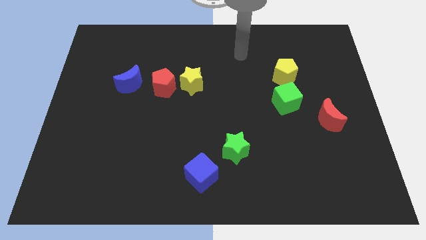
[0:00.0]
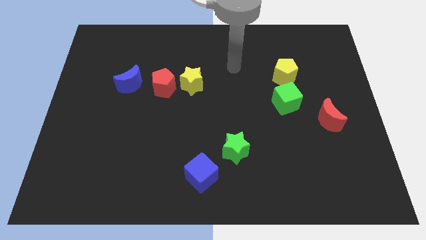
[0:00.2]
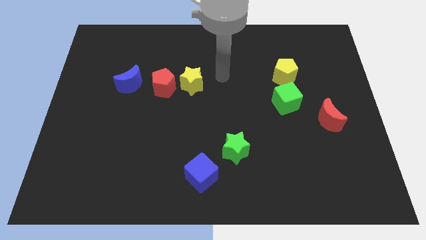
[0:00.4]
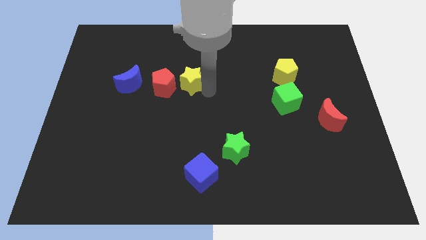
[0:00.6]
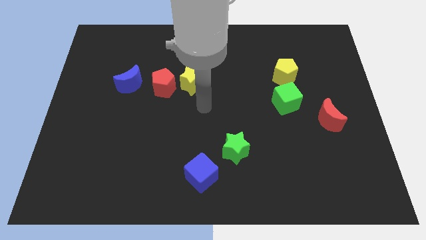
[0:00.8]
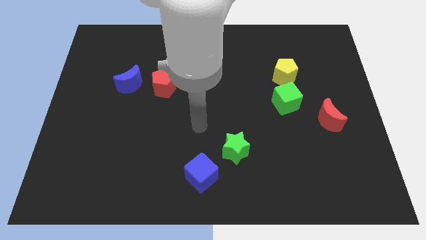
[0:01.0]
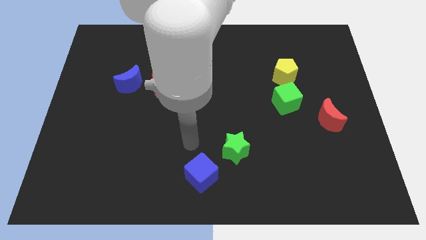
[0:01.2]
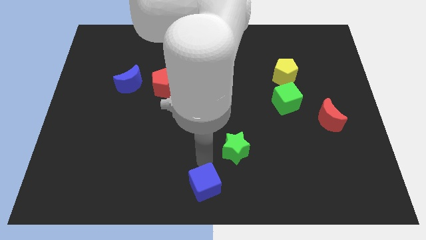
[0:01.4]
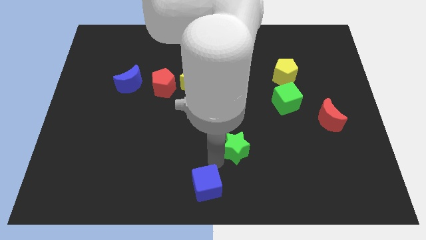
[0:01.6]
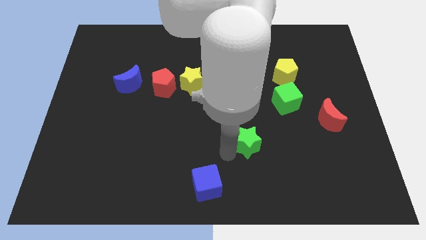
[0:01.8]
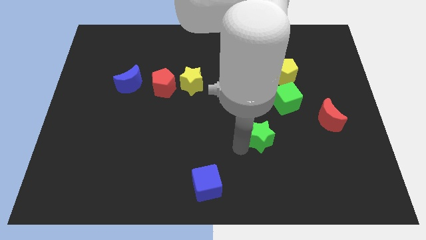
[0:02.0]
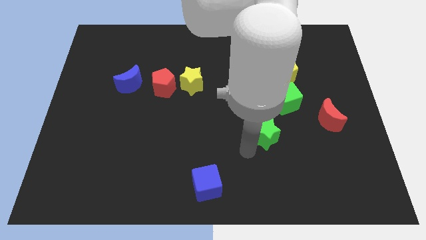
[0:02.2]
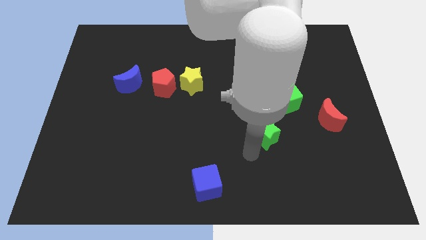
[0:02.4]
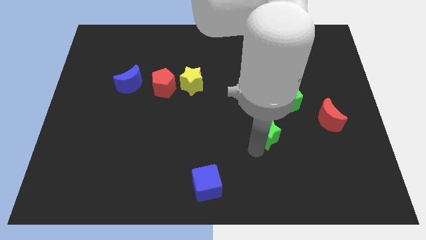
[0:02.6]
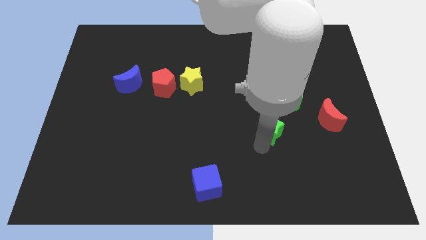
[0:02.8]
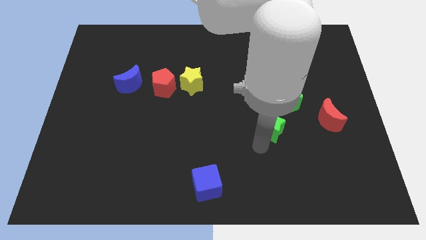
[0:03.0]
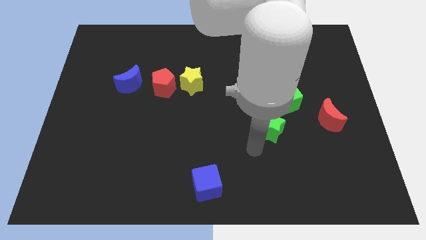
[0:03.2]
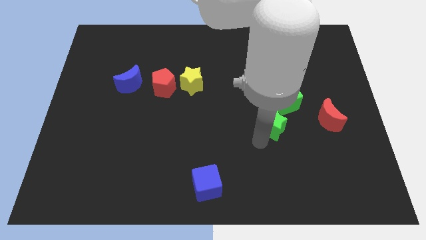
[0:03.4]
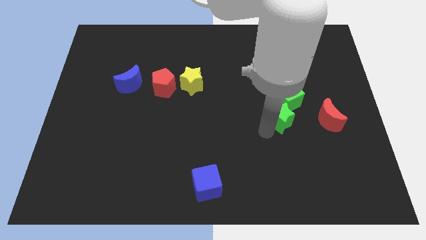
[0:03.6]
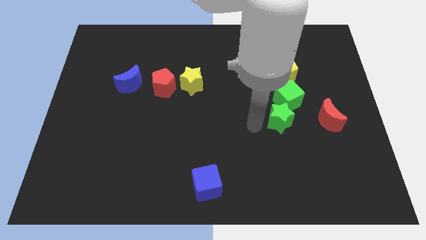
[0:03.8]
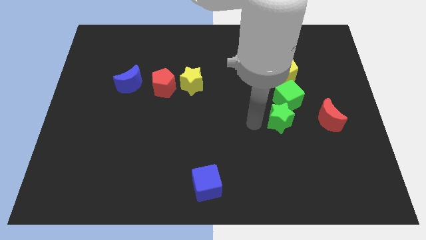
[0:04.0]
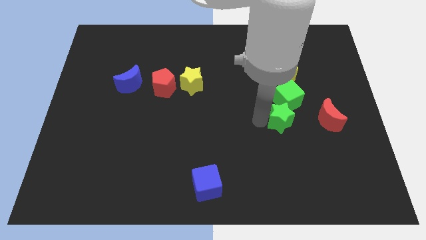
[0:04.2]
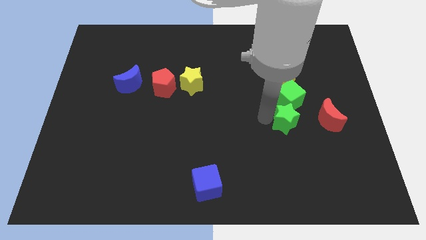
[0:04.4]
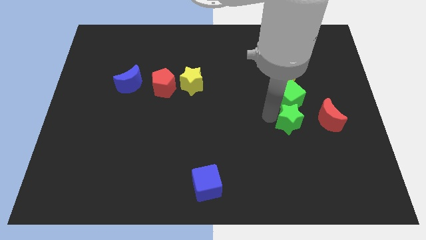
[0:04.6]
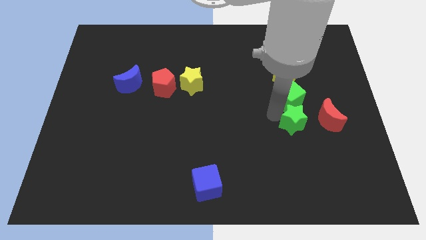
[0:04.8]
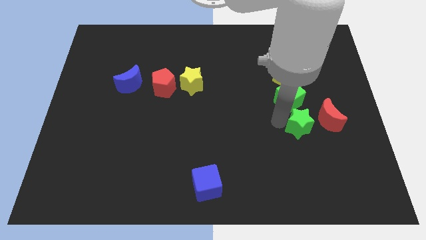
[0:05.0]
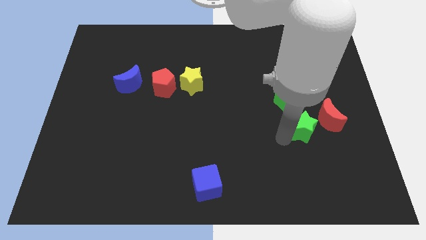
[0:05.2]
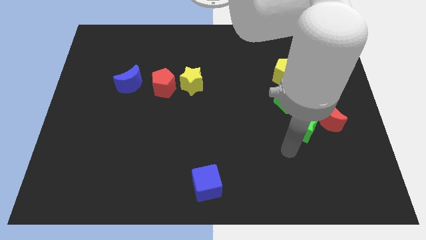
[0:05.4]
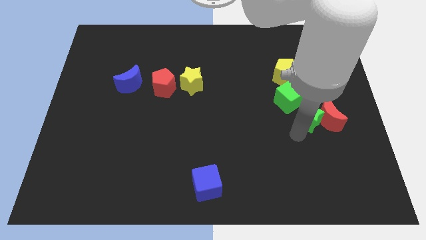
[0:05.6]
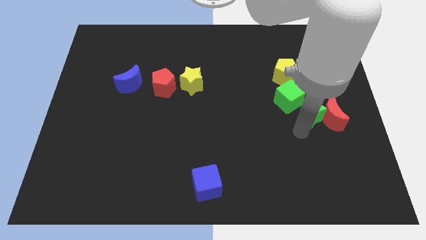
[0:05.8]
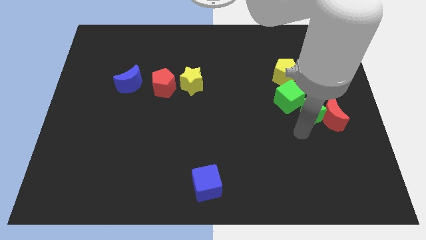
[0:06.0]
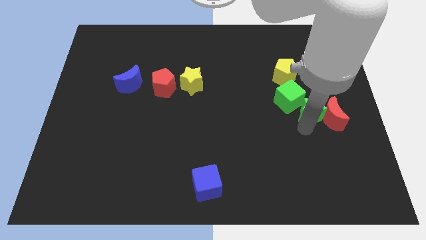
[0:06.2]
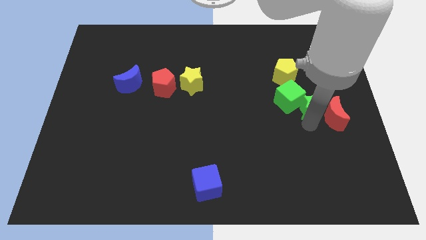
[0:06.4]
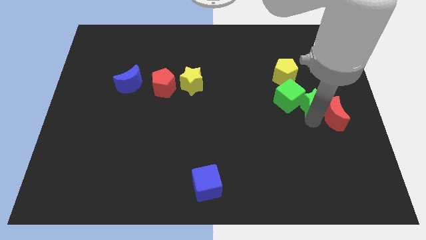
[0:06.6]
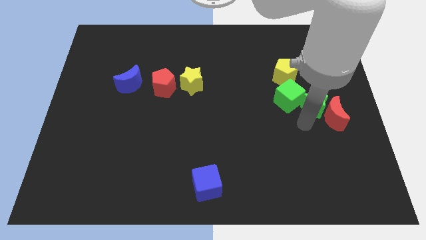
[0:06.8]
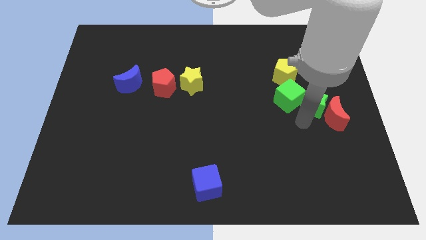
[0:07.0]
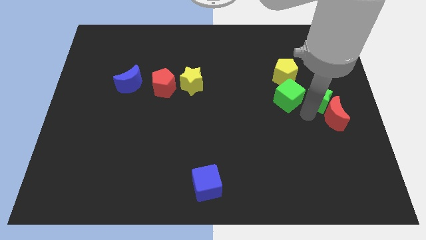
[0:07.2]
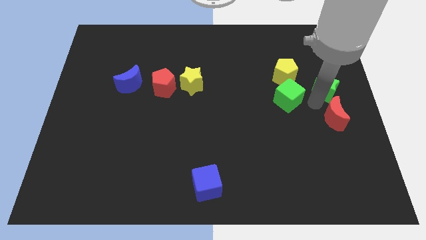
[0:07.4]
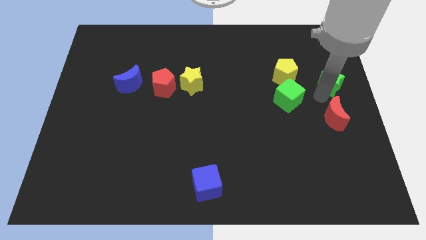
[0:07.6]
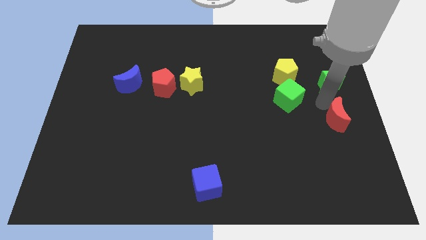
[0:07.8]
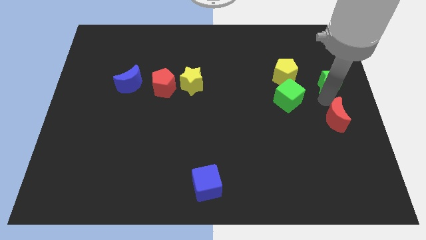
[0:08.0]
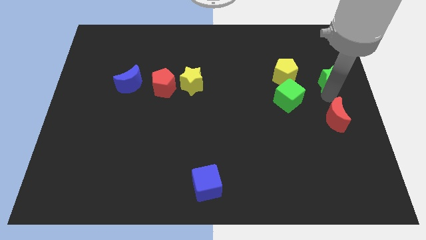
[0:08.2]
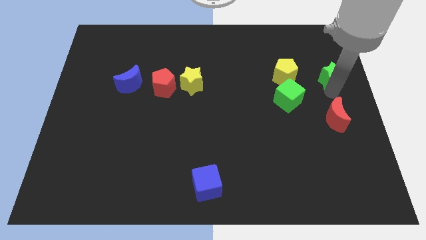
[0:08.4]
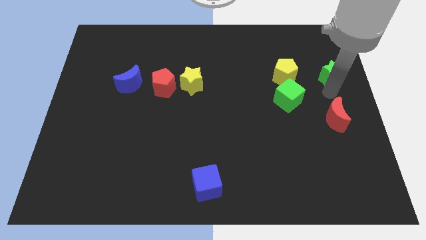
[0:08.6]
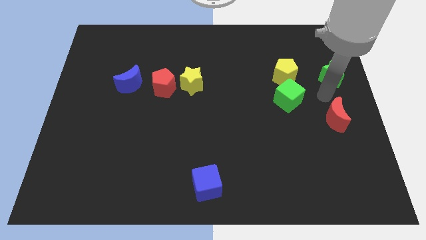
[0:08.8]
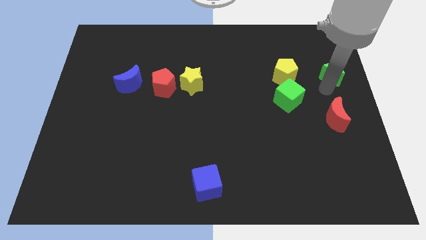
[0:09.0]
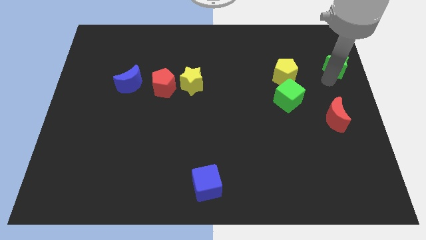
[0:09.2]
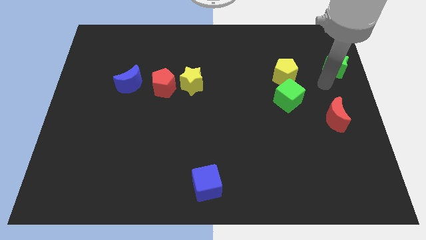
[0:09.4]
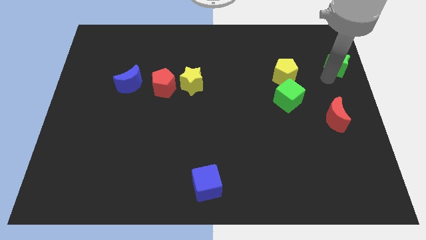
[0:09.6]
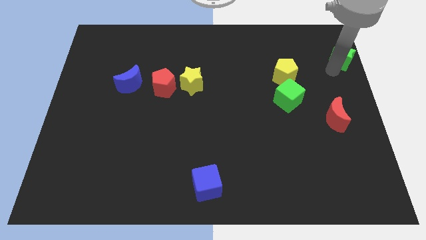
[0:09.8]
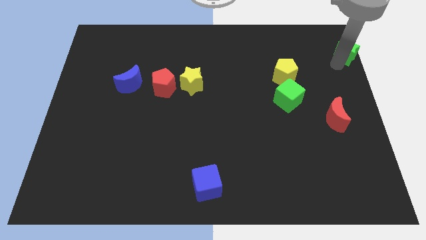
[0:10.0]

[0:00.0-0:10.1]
put the green star to the top right

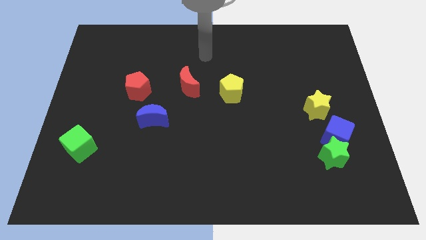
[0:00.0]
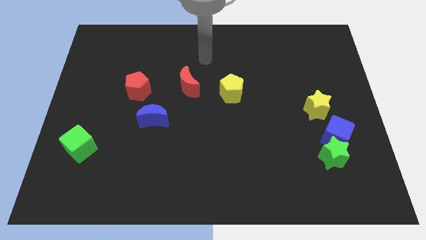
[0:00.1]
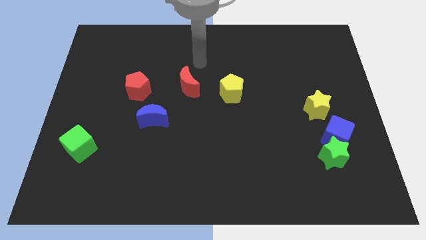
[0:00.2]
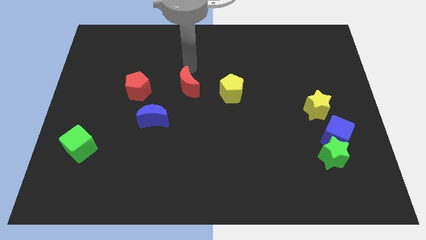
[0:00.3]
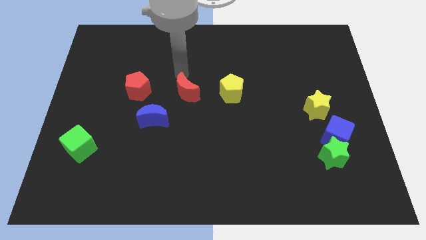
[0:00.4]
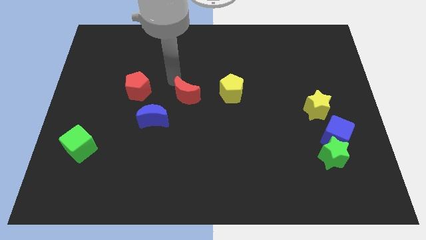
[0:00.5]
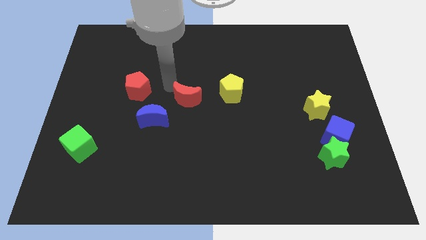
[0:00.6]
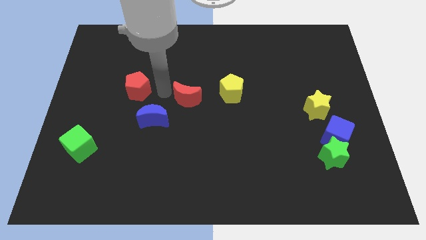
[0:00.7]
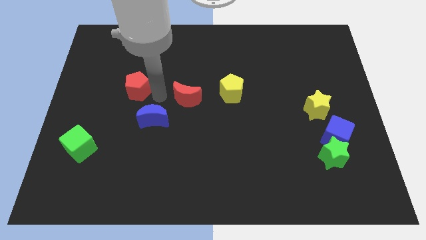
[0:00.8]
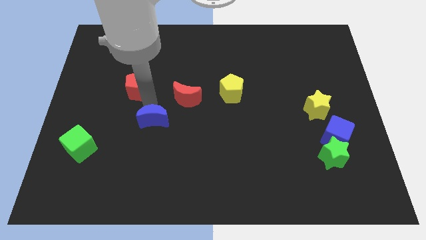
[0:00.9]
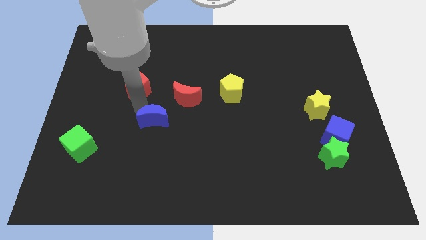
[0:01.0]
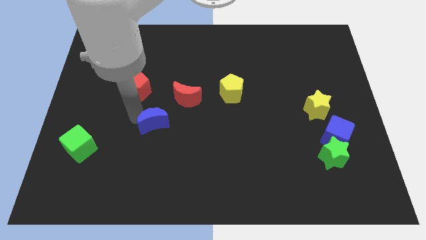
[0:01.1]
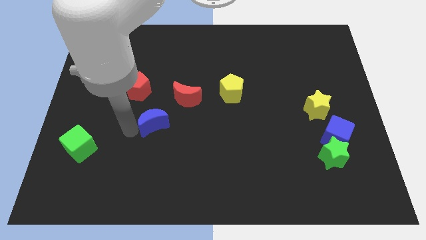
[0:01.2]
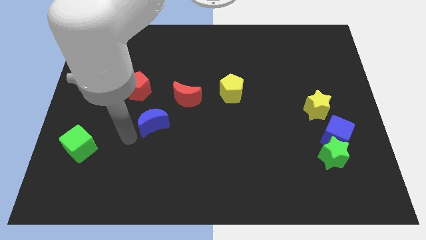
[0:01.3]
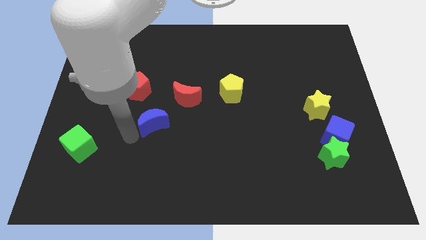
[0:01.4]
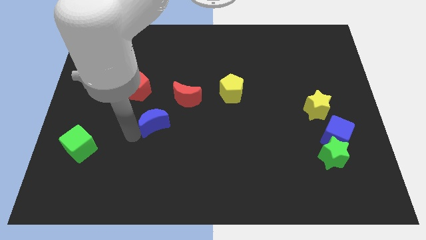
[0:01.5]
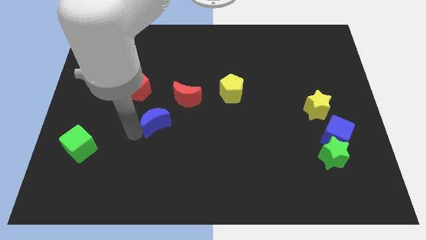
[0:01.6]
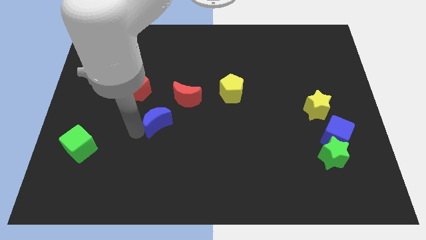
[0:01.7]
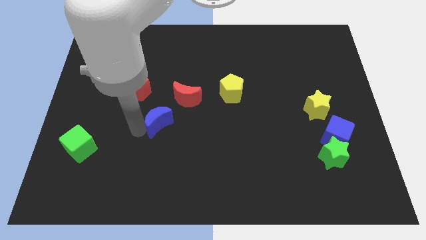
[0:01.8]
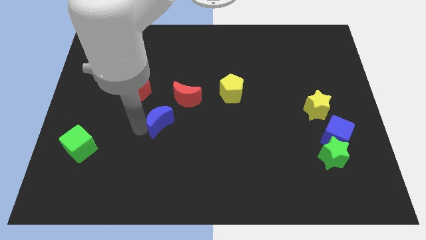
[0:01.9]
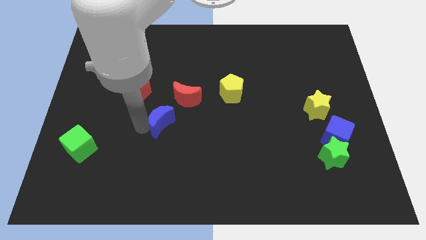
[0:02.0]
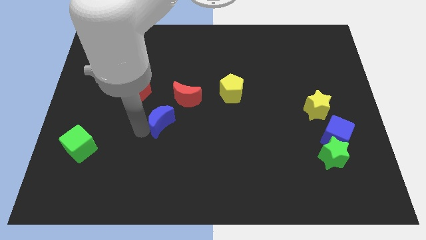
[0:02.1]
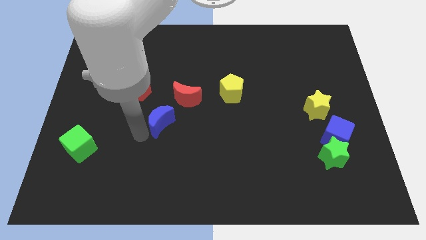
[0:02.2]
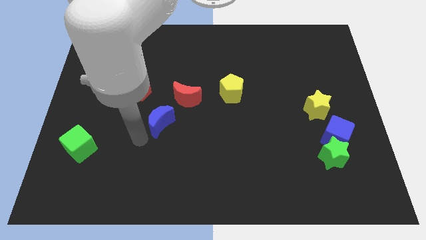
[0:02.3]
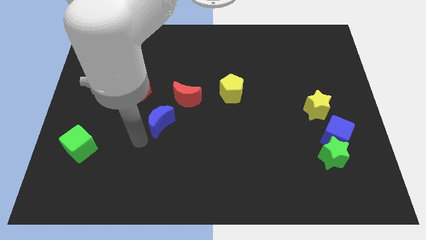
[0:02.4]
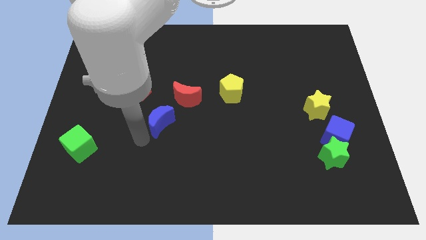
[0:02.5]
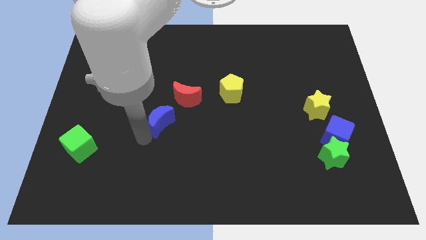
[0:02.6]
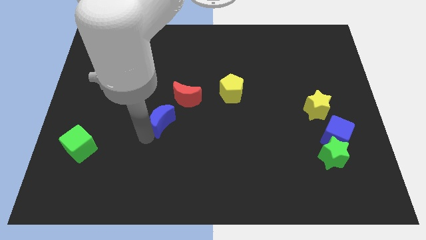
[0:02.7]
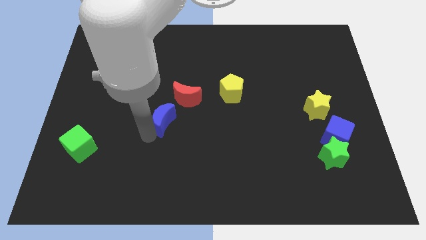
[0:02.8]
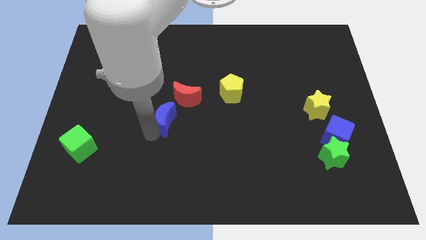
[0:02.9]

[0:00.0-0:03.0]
put the blue moon to the middle of the board

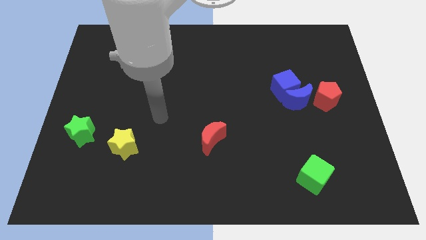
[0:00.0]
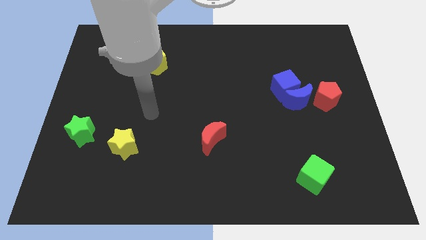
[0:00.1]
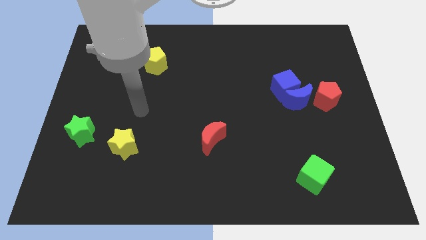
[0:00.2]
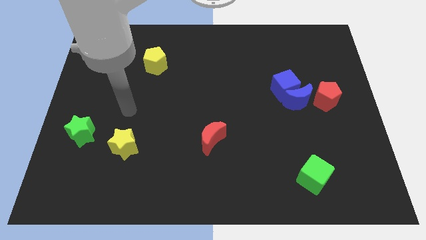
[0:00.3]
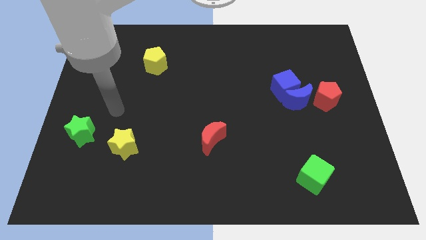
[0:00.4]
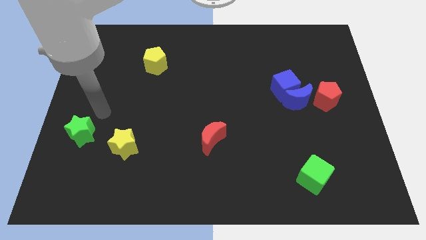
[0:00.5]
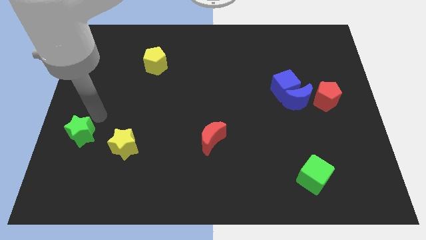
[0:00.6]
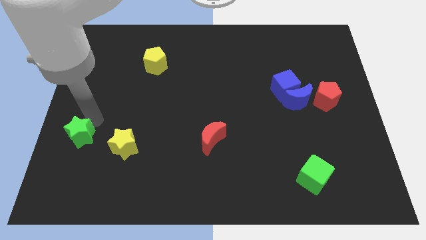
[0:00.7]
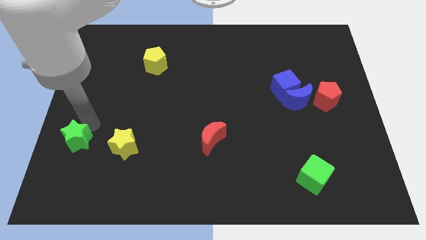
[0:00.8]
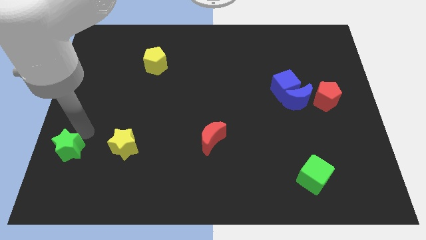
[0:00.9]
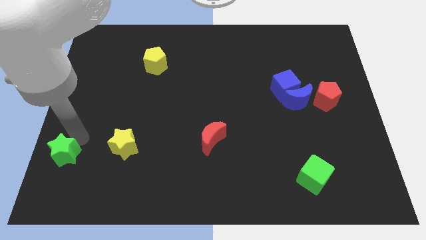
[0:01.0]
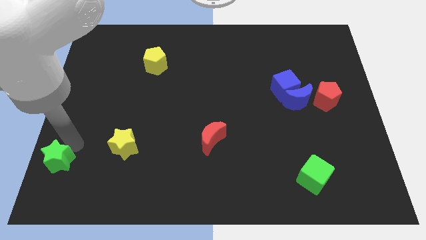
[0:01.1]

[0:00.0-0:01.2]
slide the green star to the bottom left
